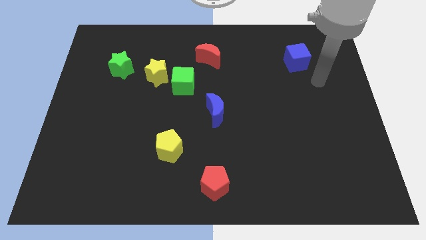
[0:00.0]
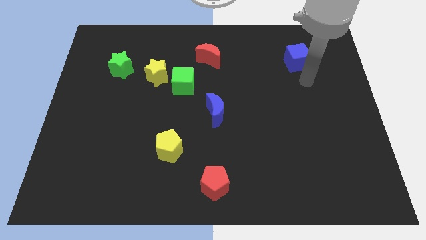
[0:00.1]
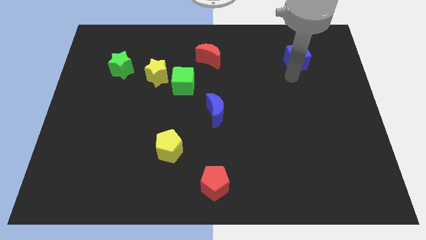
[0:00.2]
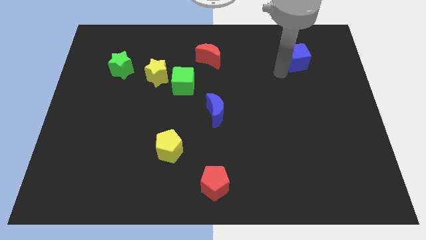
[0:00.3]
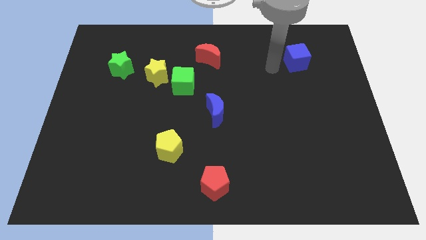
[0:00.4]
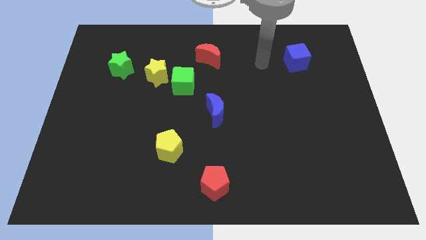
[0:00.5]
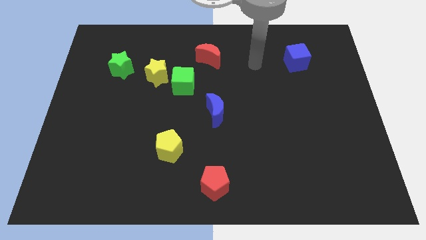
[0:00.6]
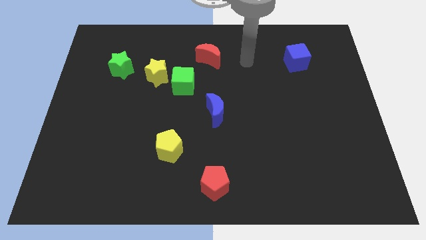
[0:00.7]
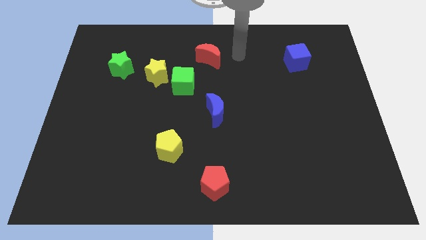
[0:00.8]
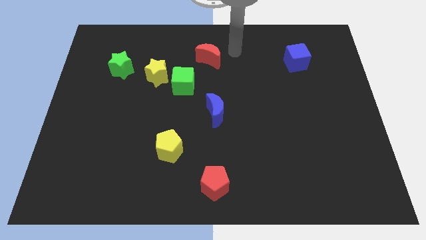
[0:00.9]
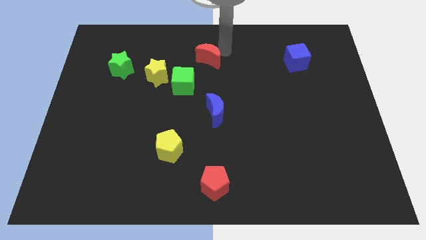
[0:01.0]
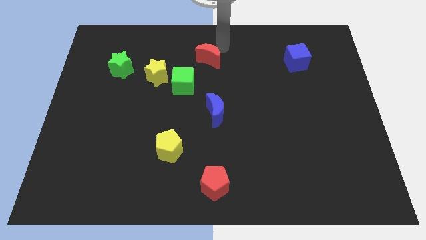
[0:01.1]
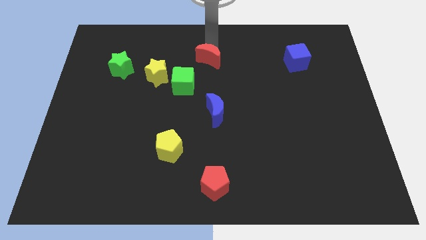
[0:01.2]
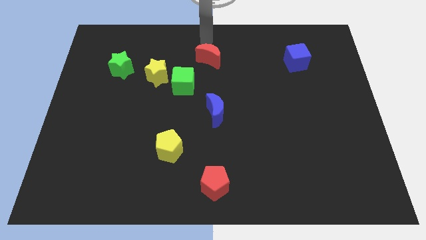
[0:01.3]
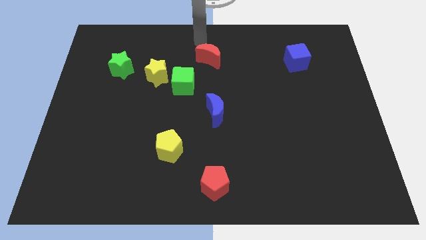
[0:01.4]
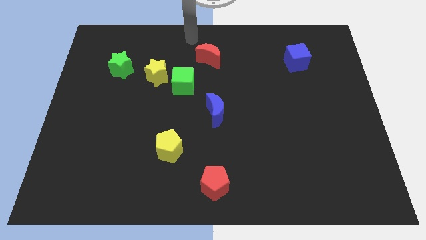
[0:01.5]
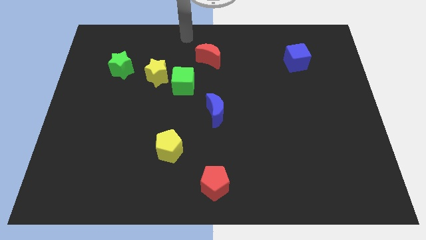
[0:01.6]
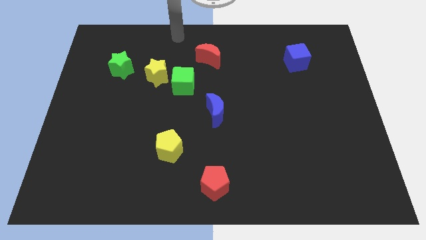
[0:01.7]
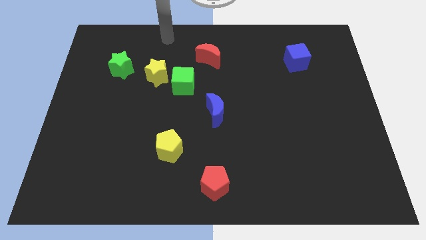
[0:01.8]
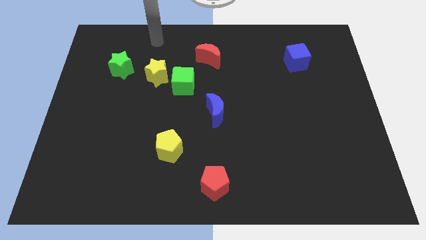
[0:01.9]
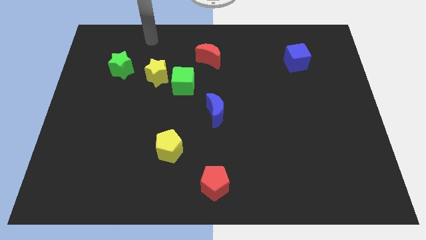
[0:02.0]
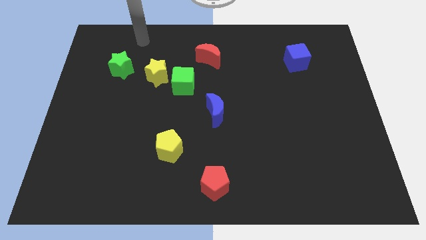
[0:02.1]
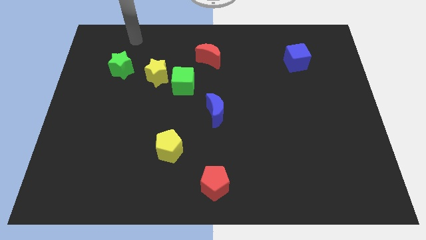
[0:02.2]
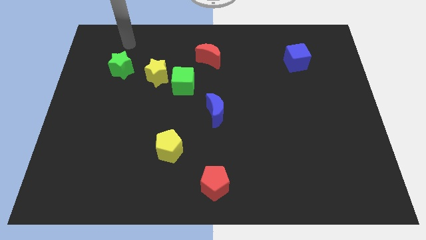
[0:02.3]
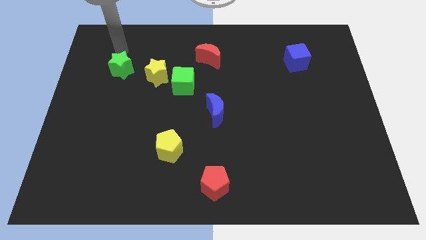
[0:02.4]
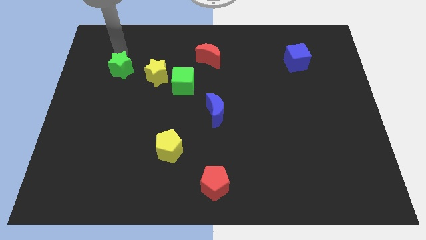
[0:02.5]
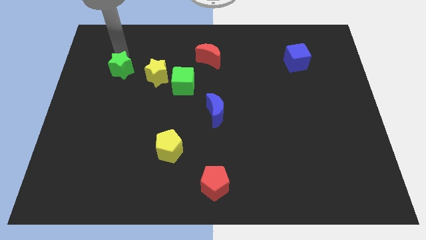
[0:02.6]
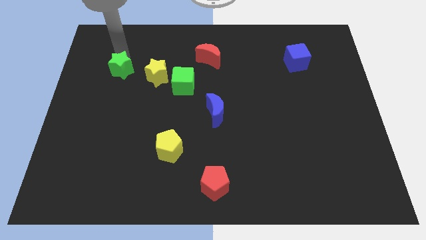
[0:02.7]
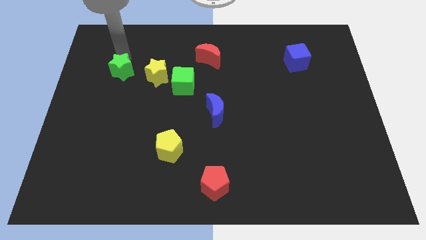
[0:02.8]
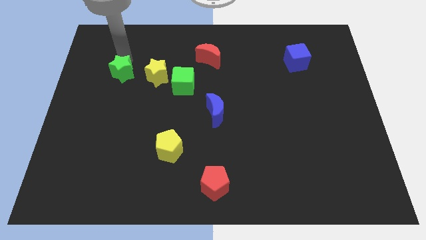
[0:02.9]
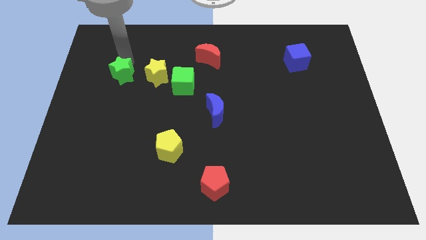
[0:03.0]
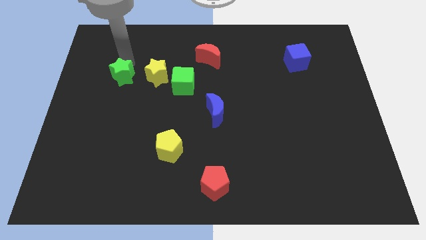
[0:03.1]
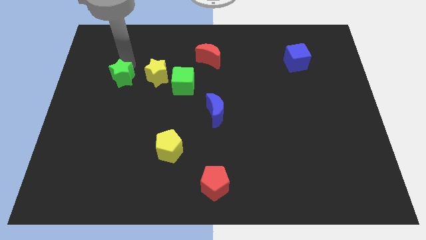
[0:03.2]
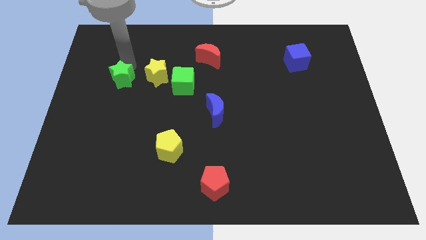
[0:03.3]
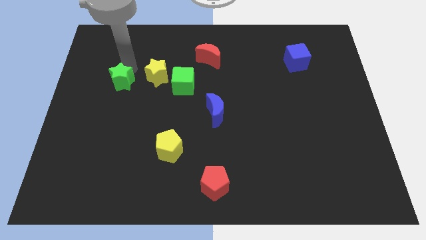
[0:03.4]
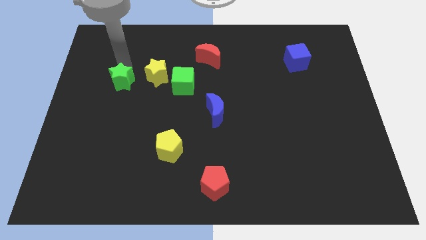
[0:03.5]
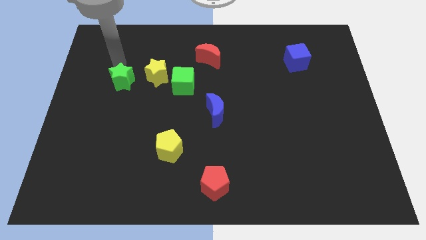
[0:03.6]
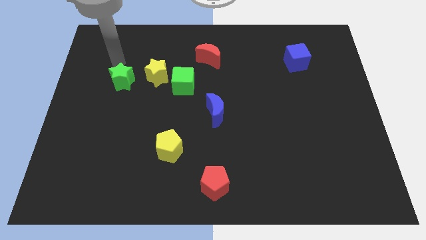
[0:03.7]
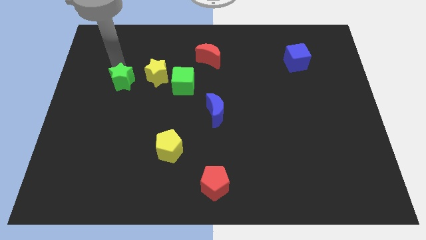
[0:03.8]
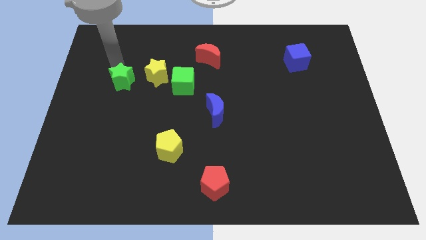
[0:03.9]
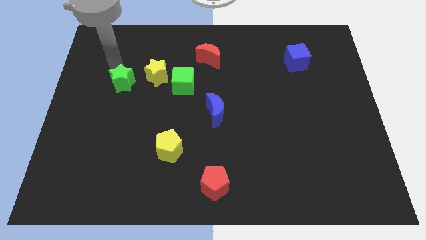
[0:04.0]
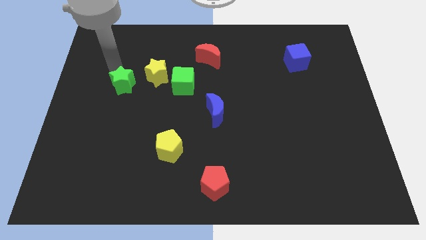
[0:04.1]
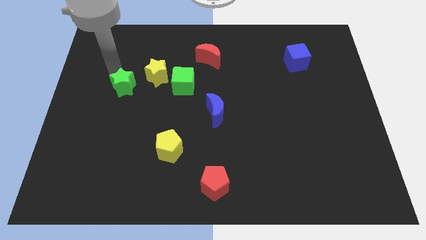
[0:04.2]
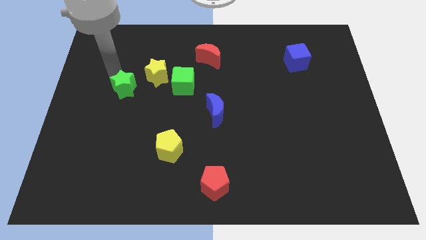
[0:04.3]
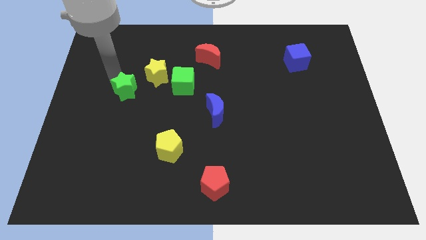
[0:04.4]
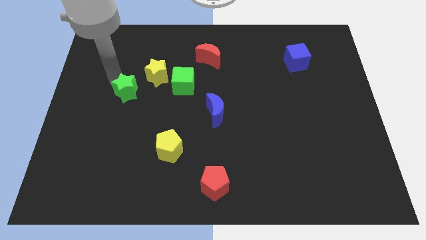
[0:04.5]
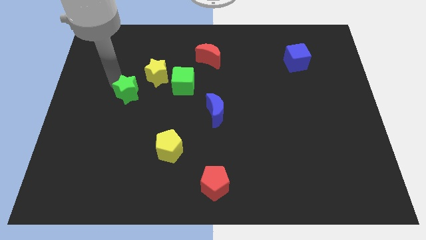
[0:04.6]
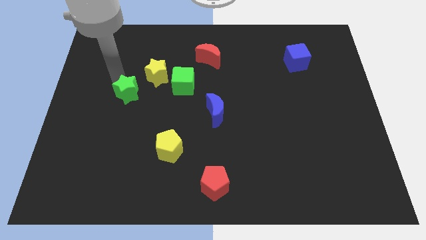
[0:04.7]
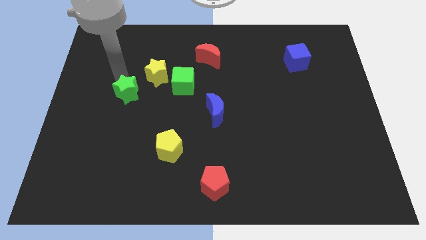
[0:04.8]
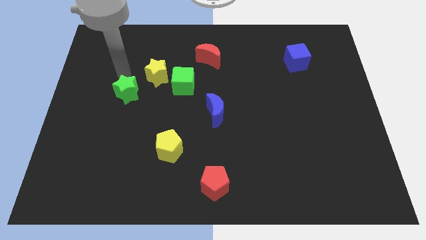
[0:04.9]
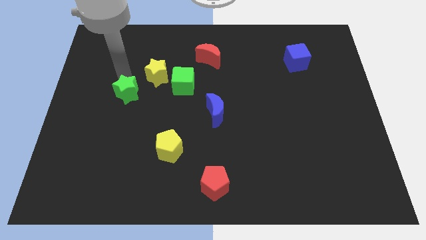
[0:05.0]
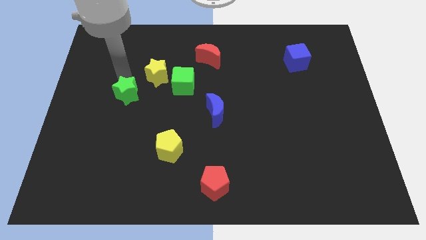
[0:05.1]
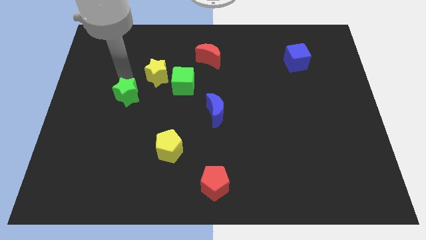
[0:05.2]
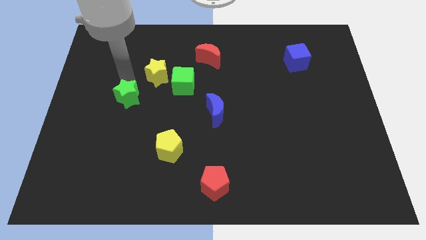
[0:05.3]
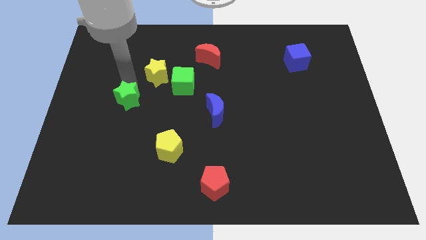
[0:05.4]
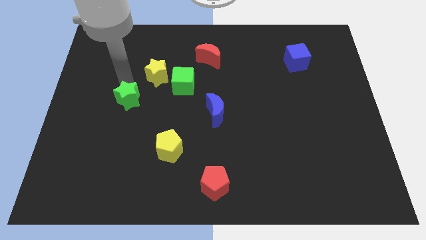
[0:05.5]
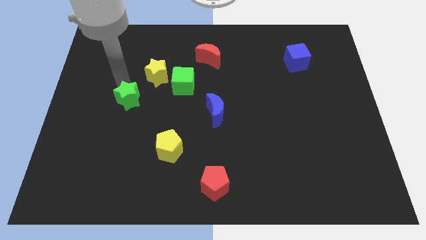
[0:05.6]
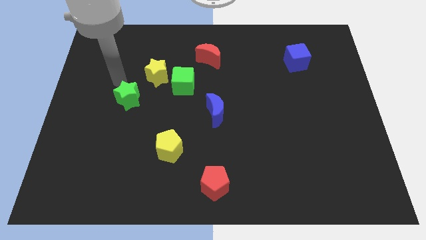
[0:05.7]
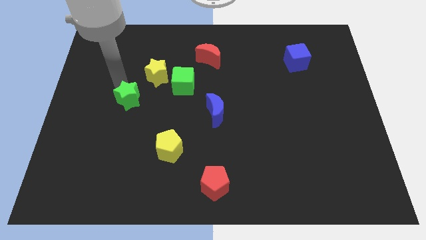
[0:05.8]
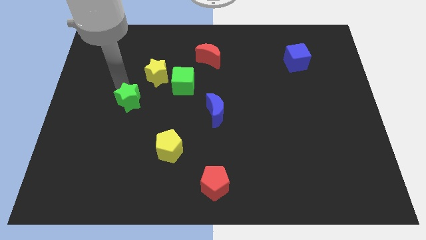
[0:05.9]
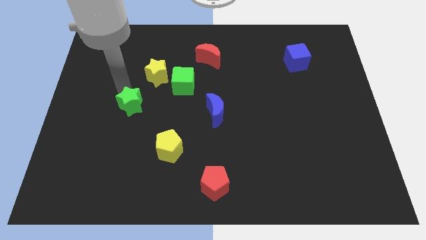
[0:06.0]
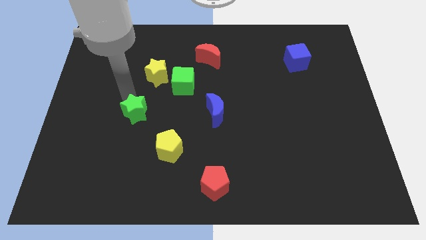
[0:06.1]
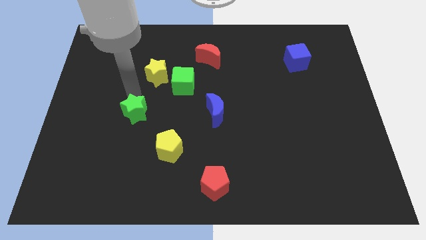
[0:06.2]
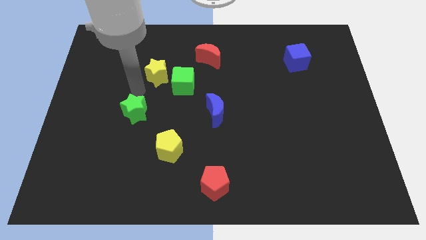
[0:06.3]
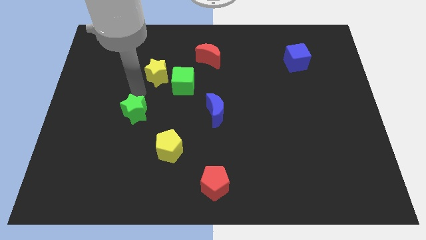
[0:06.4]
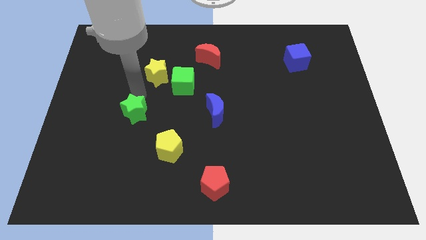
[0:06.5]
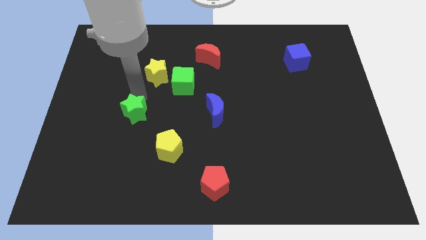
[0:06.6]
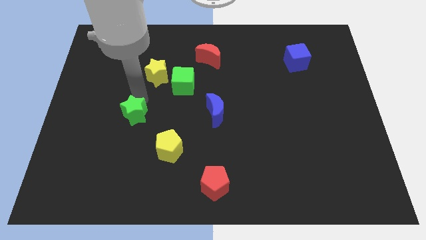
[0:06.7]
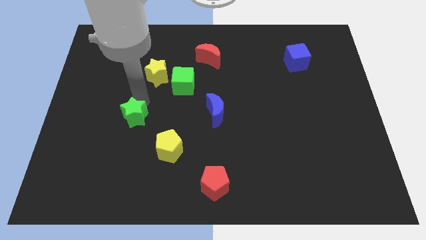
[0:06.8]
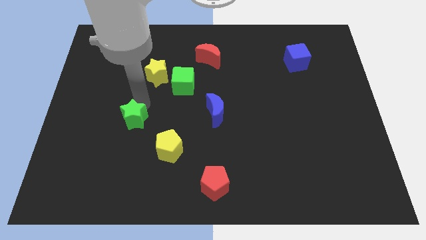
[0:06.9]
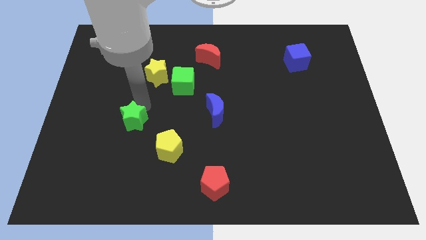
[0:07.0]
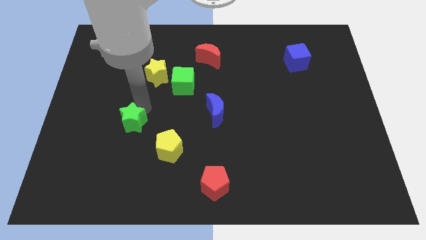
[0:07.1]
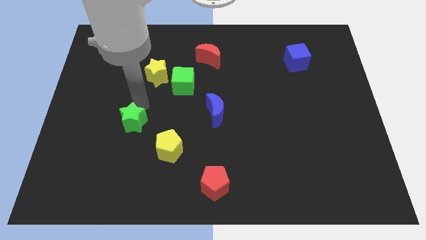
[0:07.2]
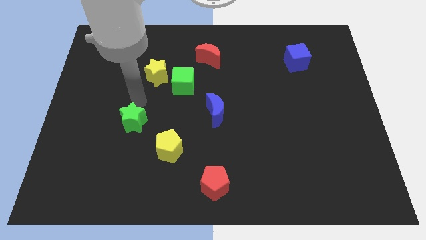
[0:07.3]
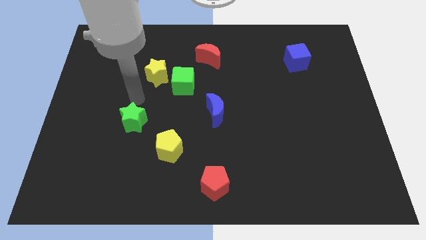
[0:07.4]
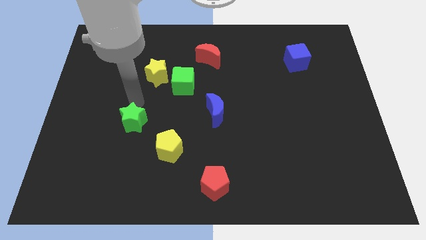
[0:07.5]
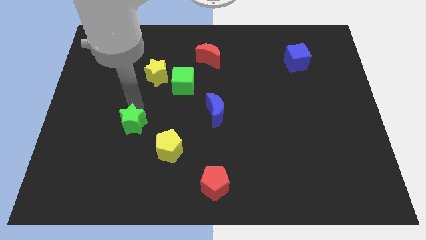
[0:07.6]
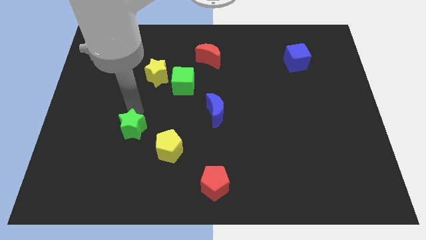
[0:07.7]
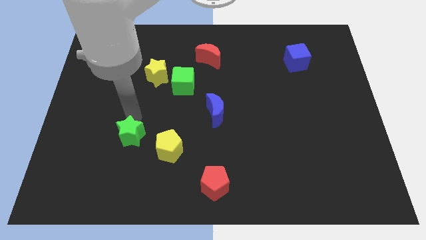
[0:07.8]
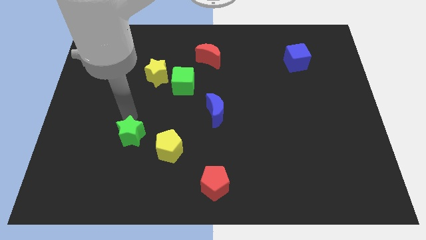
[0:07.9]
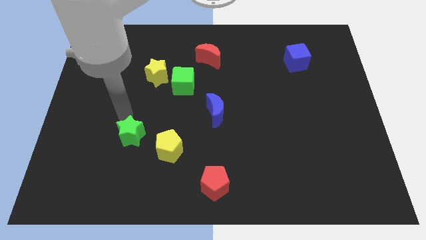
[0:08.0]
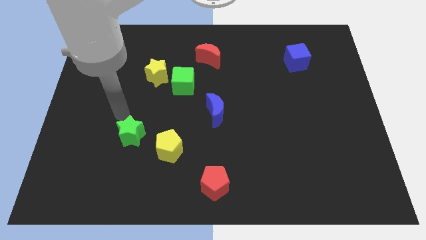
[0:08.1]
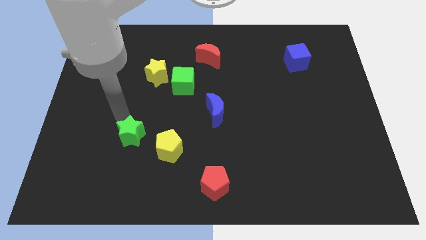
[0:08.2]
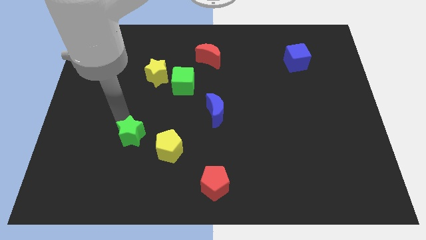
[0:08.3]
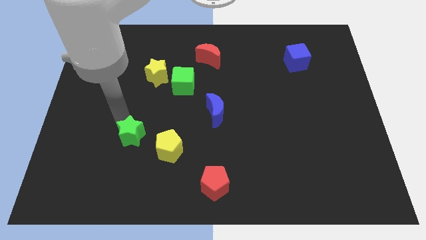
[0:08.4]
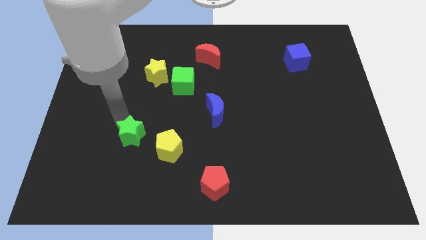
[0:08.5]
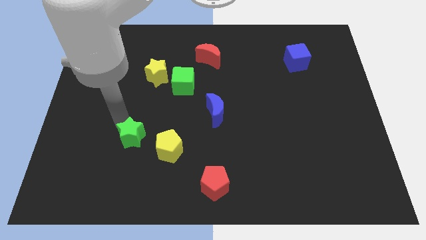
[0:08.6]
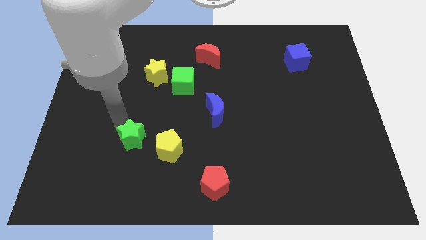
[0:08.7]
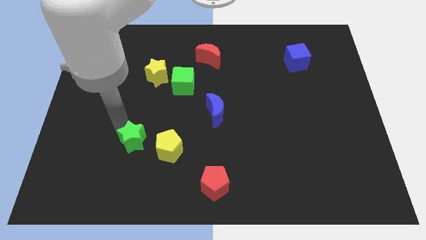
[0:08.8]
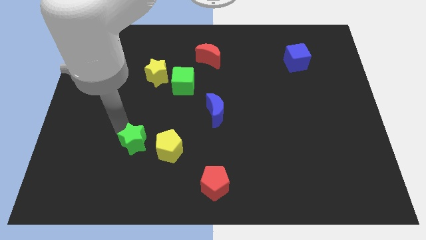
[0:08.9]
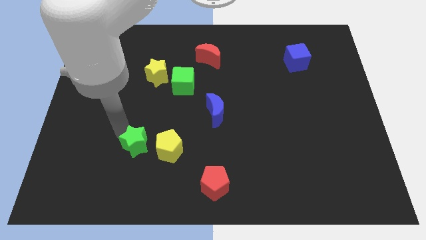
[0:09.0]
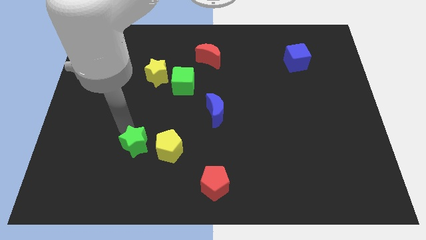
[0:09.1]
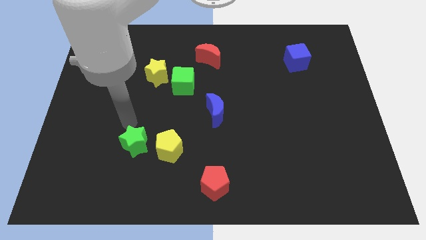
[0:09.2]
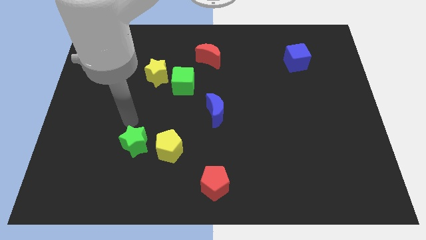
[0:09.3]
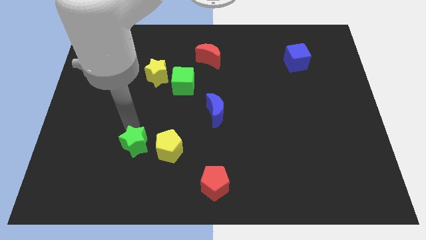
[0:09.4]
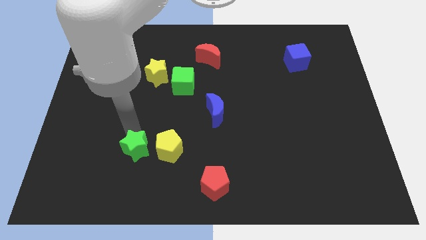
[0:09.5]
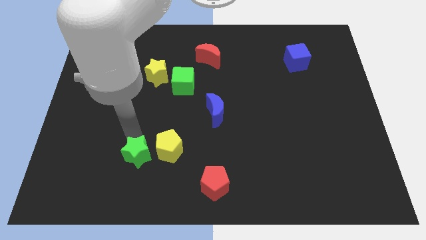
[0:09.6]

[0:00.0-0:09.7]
slide the green star to the bottom left side of the yellow pentagon
